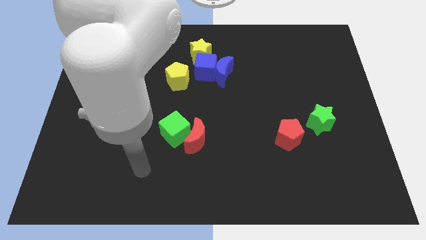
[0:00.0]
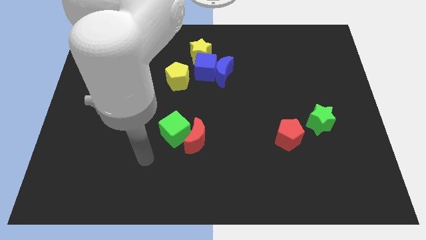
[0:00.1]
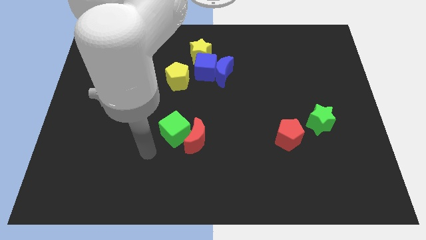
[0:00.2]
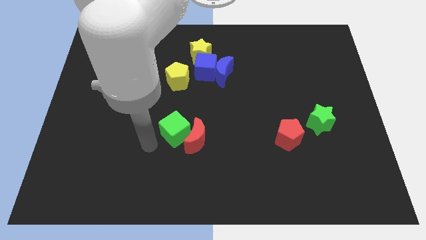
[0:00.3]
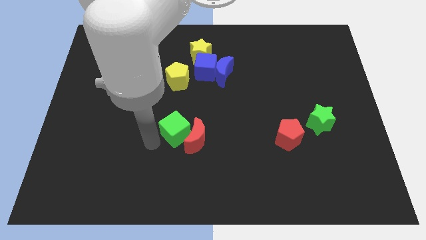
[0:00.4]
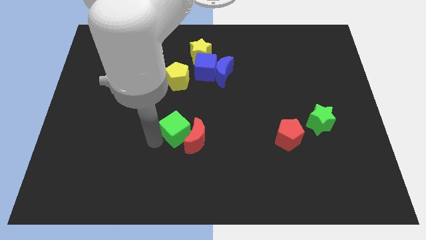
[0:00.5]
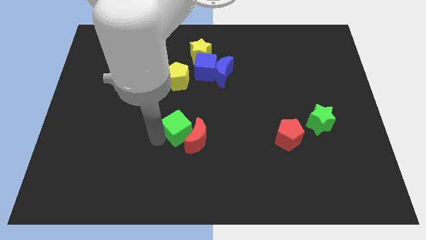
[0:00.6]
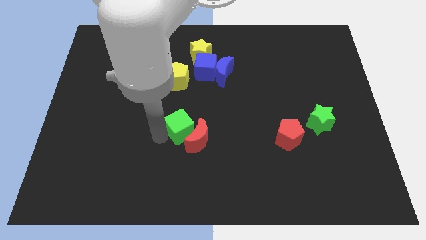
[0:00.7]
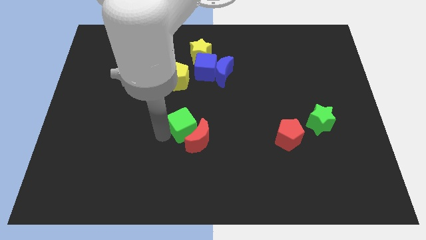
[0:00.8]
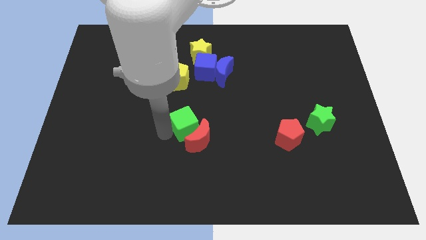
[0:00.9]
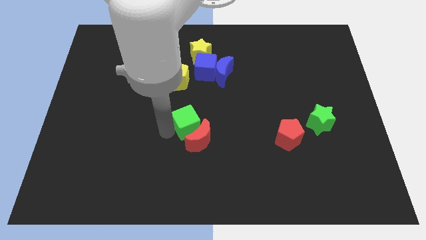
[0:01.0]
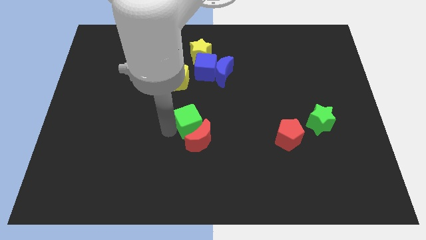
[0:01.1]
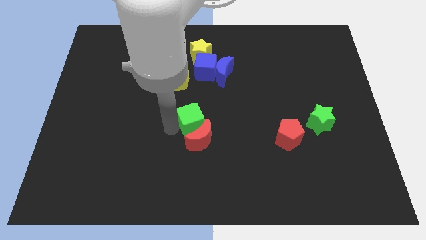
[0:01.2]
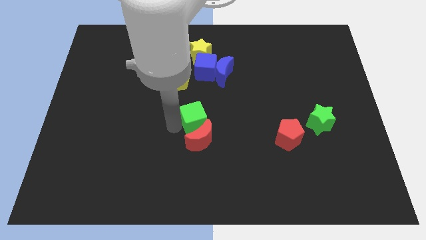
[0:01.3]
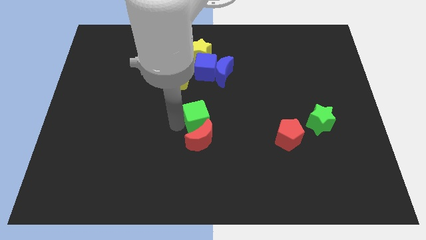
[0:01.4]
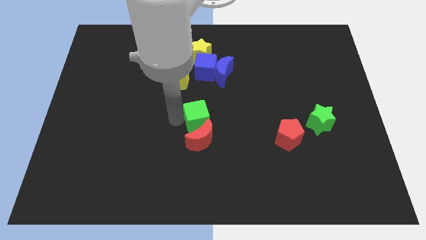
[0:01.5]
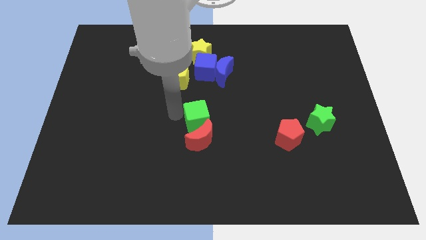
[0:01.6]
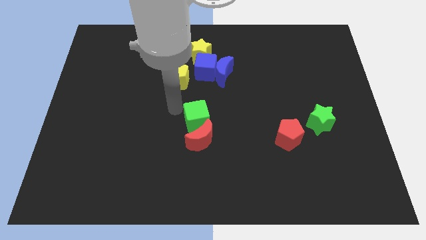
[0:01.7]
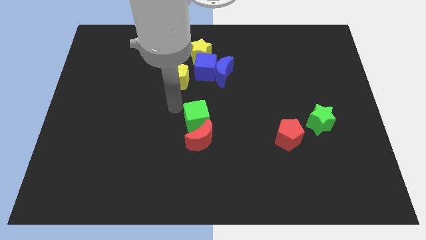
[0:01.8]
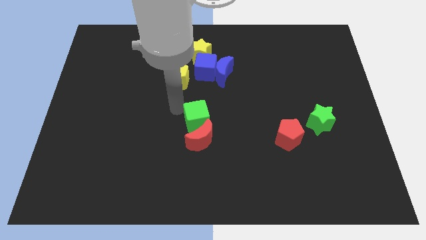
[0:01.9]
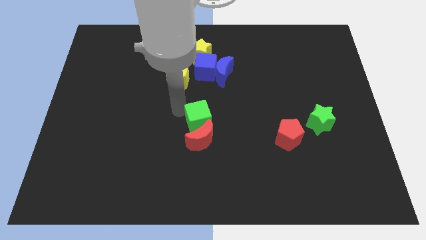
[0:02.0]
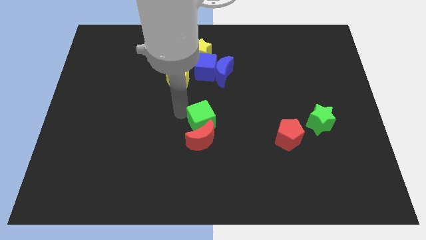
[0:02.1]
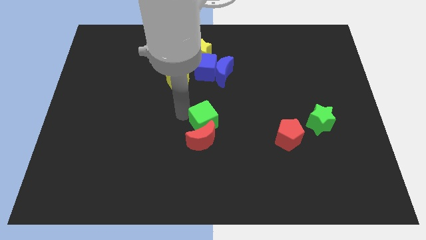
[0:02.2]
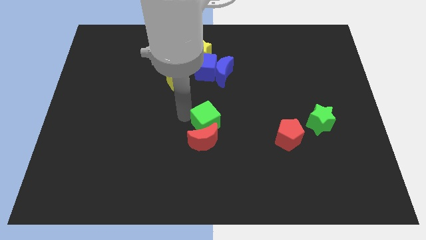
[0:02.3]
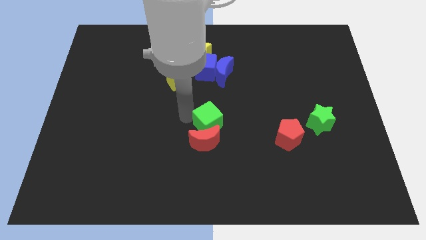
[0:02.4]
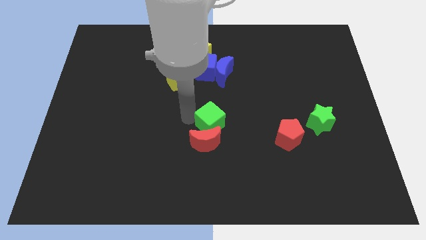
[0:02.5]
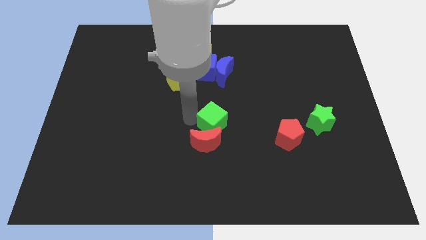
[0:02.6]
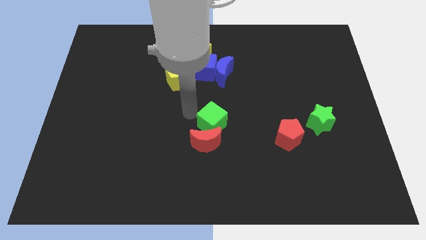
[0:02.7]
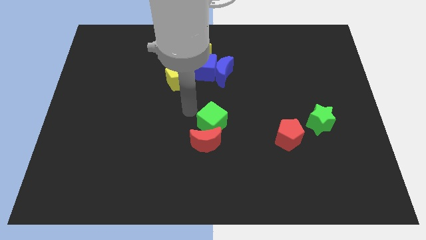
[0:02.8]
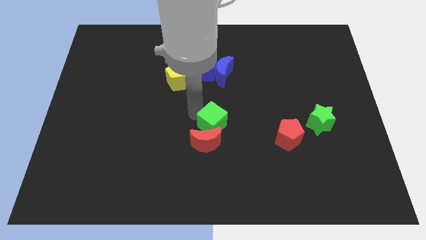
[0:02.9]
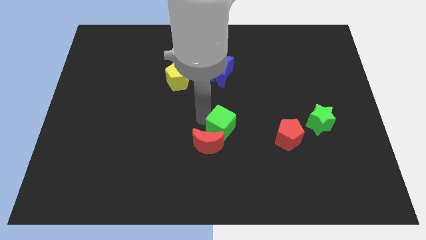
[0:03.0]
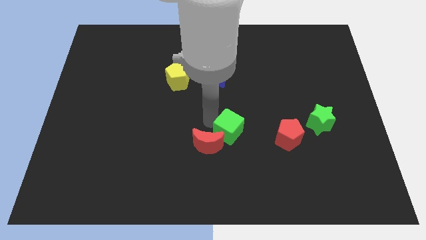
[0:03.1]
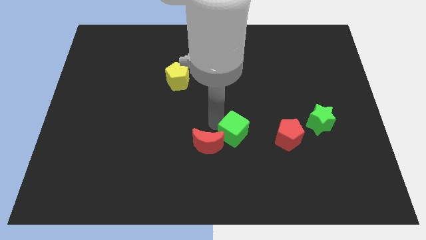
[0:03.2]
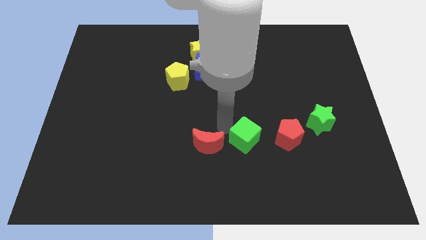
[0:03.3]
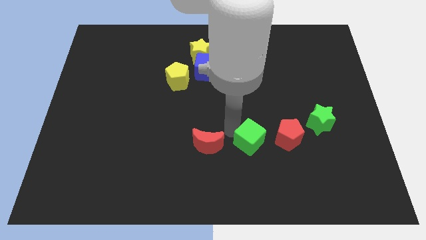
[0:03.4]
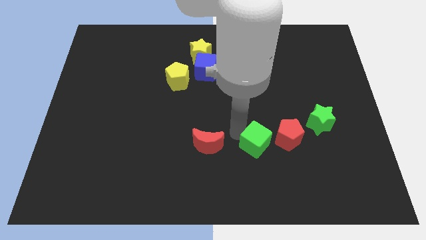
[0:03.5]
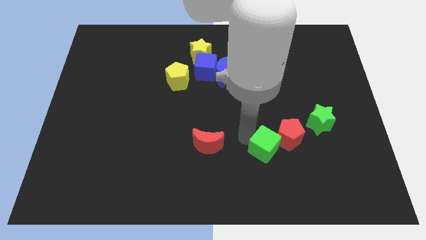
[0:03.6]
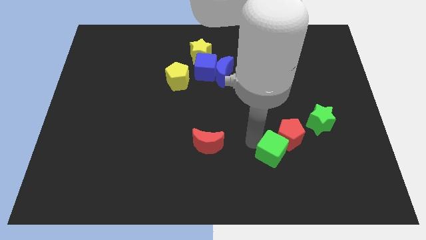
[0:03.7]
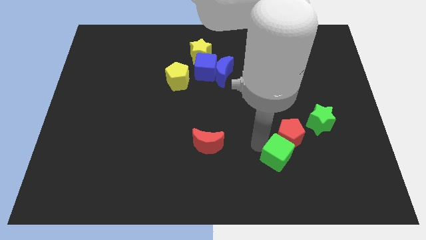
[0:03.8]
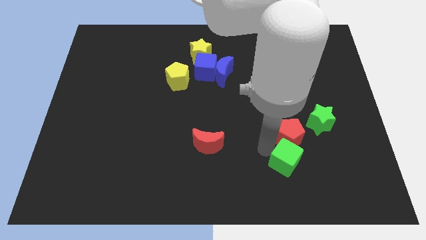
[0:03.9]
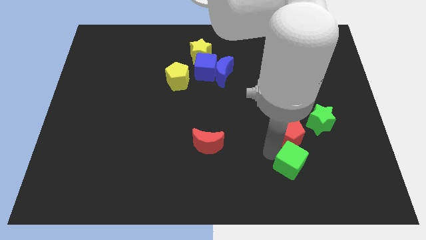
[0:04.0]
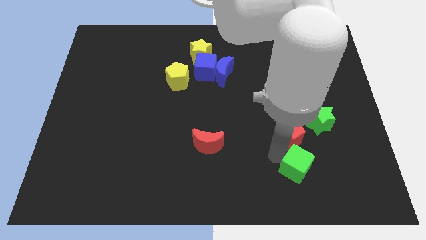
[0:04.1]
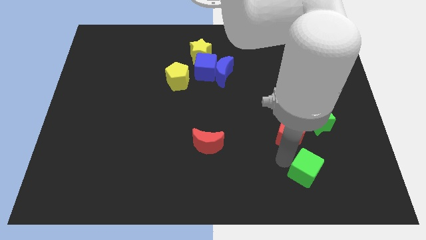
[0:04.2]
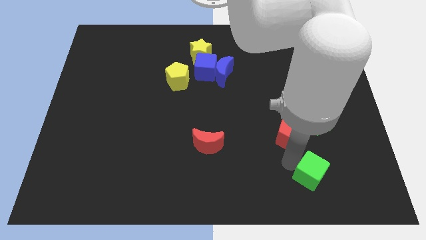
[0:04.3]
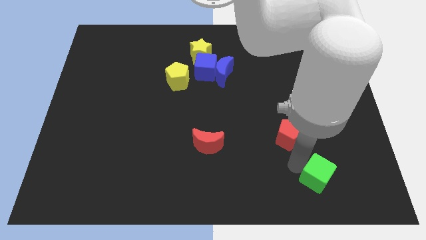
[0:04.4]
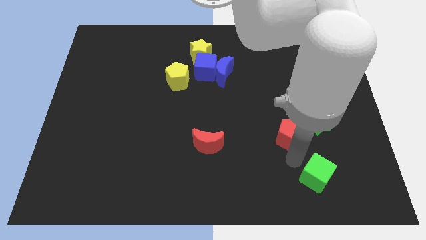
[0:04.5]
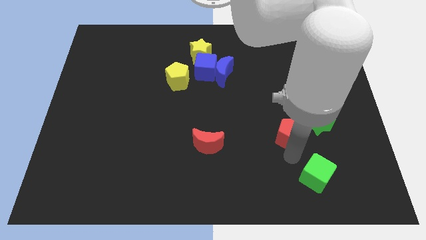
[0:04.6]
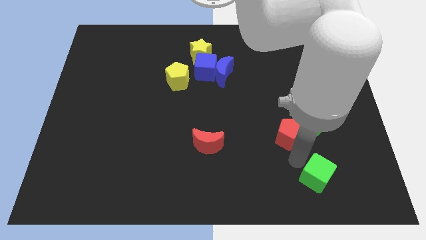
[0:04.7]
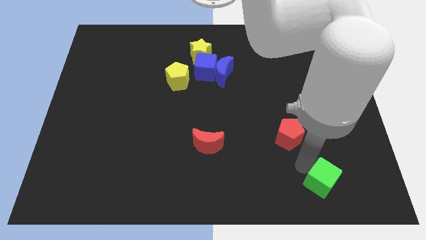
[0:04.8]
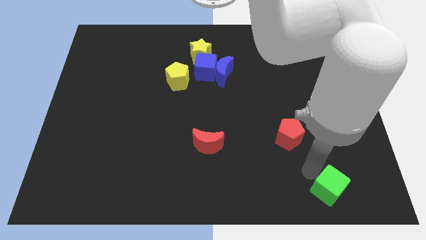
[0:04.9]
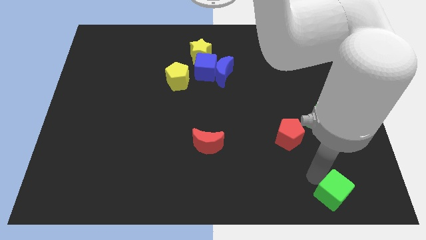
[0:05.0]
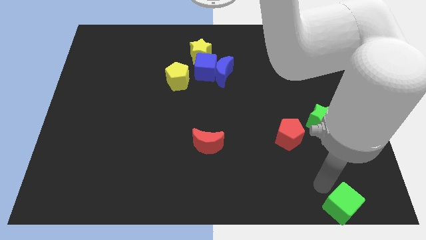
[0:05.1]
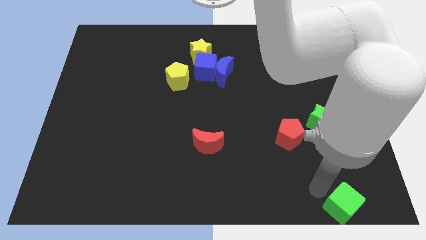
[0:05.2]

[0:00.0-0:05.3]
move the green cube to the bottom right of the board

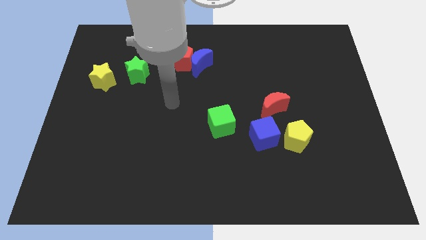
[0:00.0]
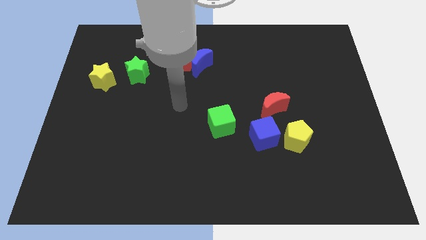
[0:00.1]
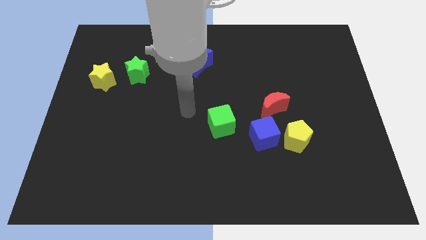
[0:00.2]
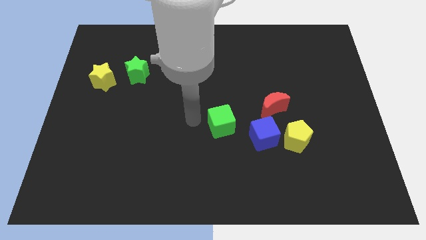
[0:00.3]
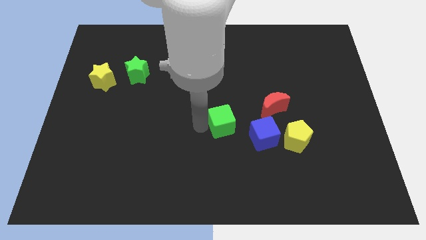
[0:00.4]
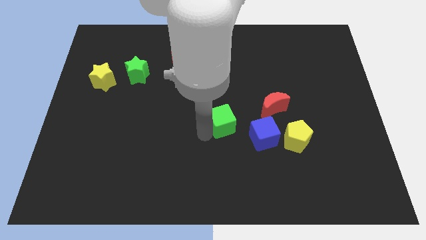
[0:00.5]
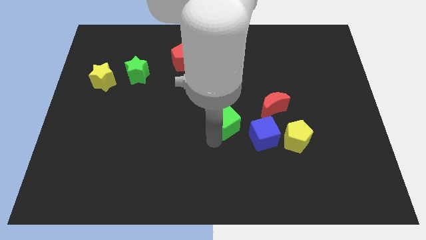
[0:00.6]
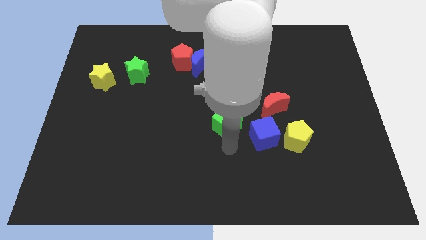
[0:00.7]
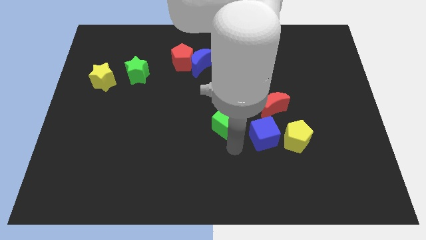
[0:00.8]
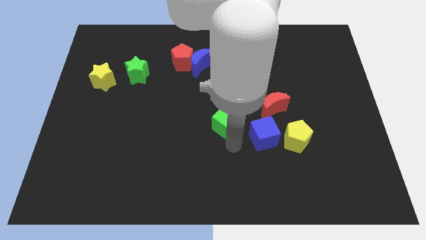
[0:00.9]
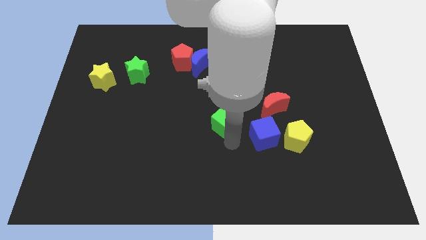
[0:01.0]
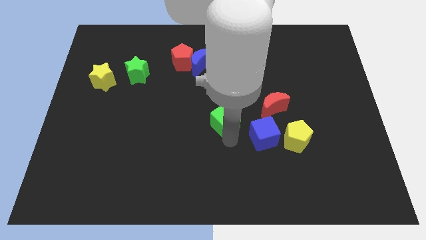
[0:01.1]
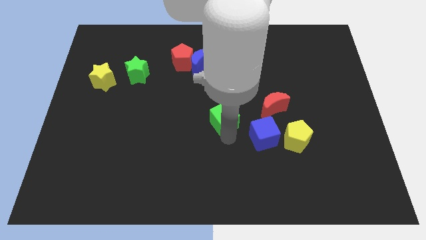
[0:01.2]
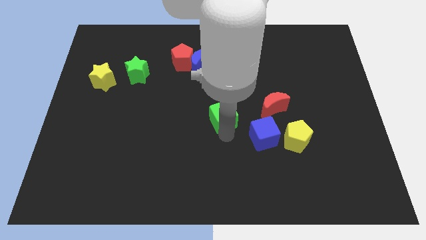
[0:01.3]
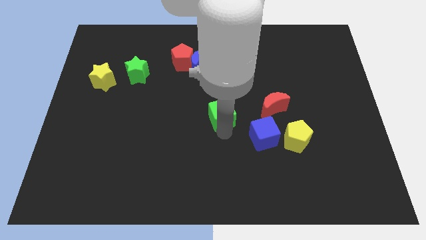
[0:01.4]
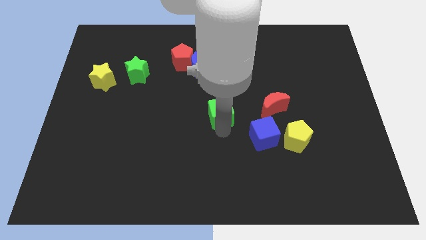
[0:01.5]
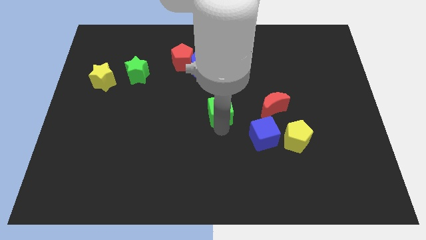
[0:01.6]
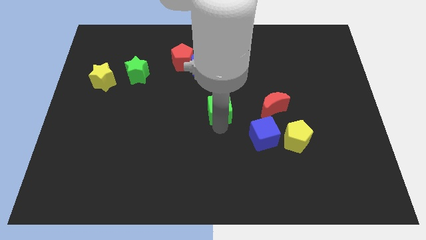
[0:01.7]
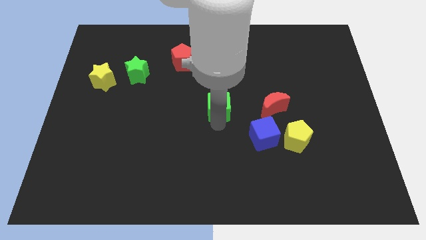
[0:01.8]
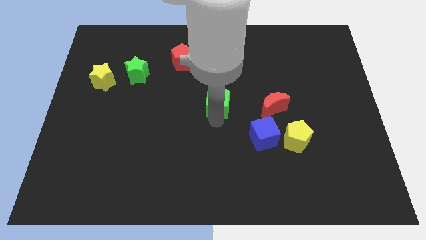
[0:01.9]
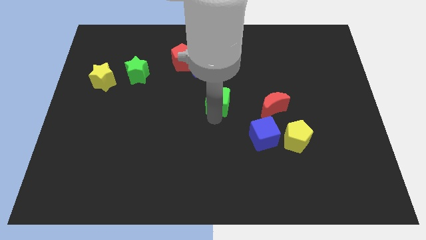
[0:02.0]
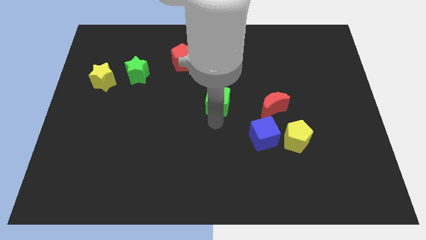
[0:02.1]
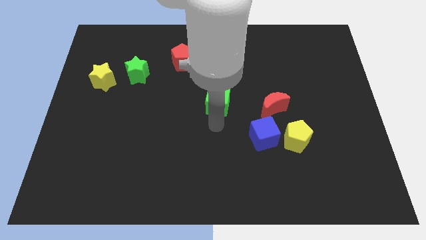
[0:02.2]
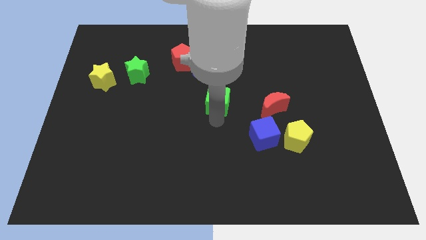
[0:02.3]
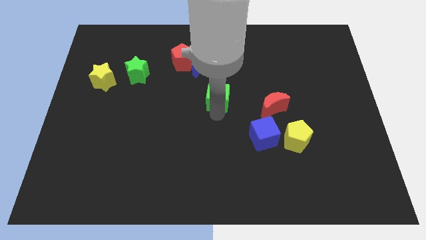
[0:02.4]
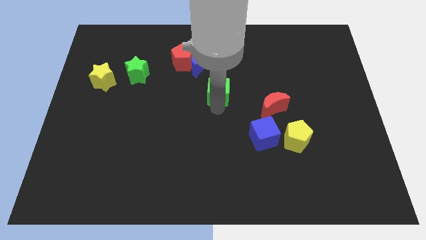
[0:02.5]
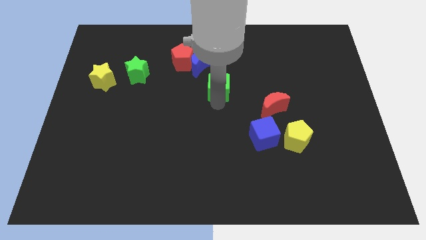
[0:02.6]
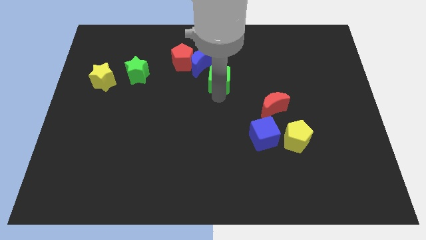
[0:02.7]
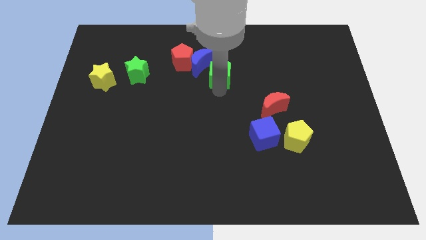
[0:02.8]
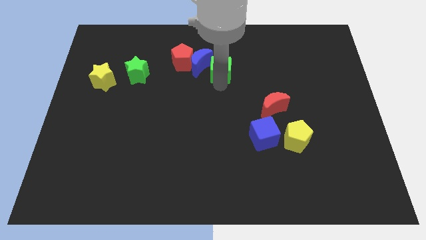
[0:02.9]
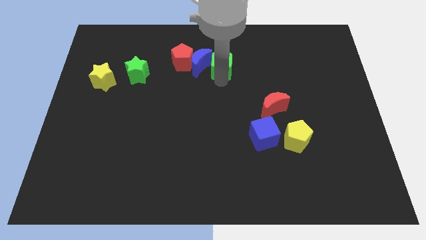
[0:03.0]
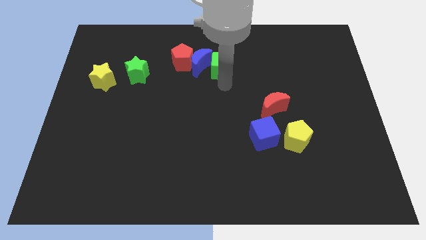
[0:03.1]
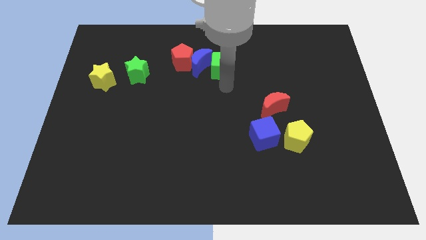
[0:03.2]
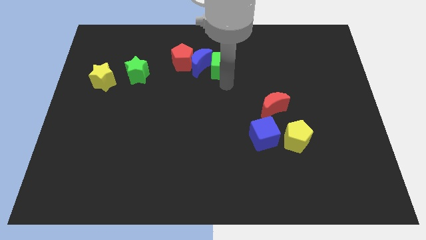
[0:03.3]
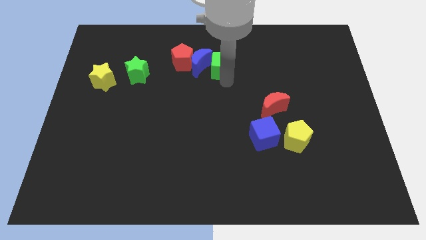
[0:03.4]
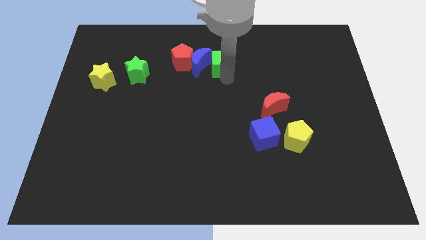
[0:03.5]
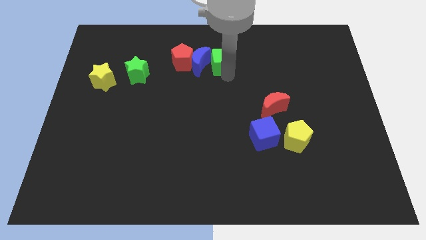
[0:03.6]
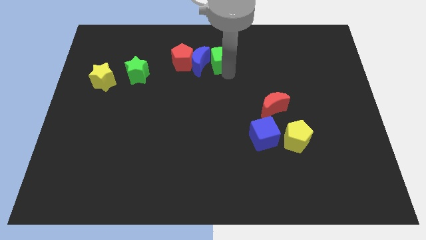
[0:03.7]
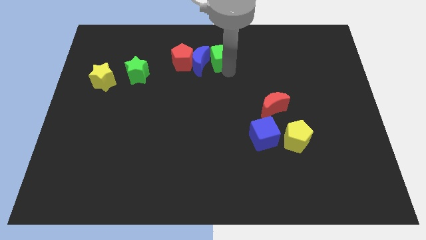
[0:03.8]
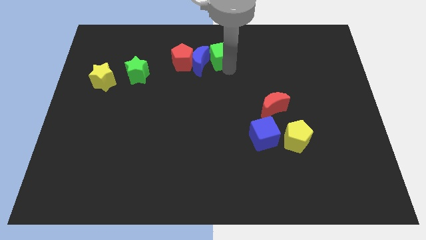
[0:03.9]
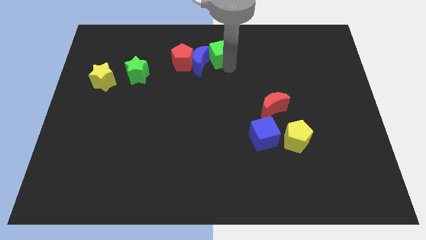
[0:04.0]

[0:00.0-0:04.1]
put the green cube to the towards your base
